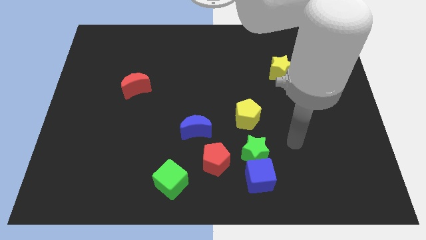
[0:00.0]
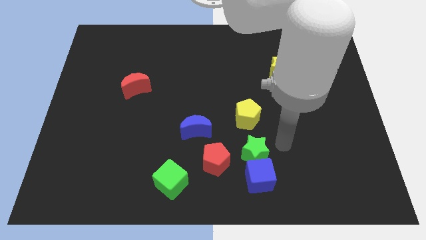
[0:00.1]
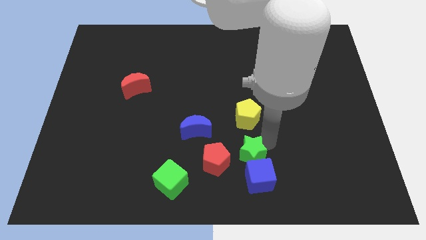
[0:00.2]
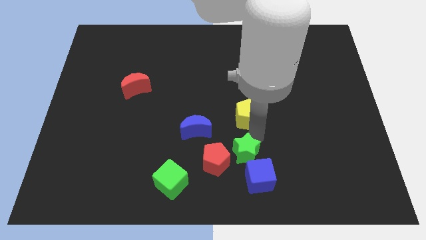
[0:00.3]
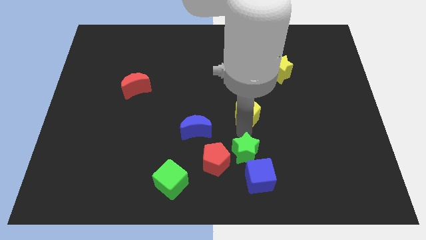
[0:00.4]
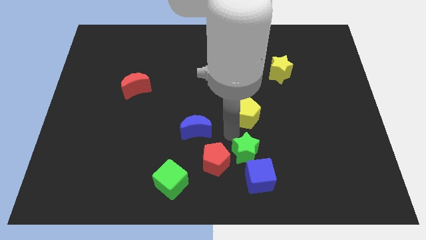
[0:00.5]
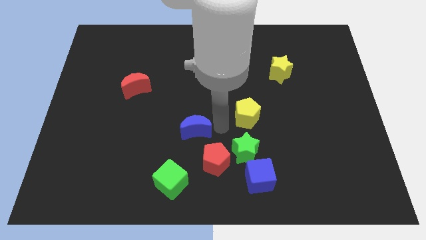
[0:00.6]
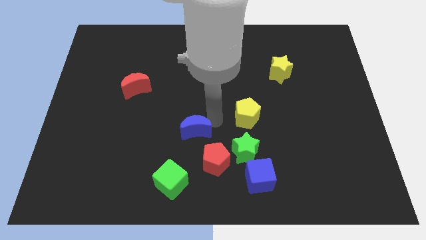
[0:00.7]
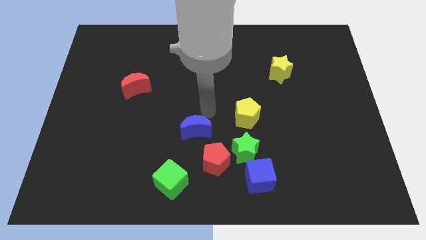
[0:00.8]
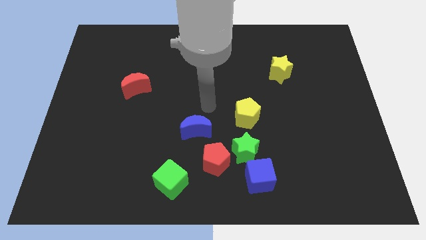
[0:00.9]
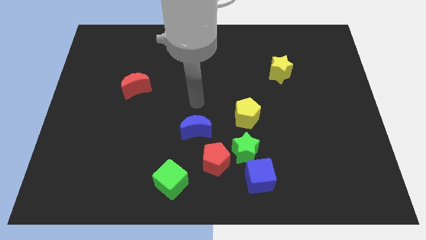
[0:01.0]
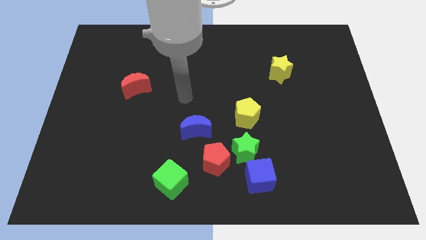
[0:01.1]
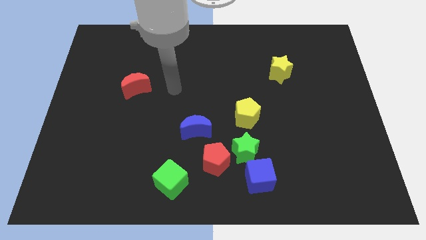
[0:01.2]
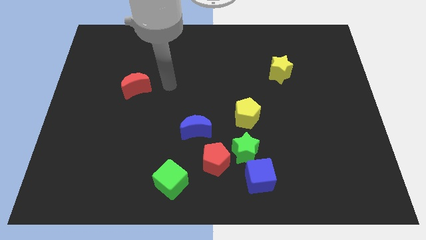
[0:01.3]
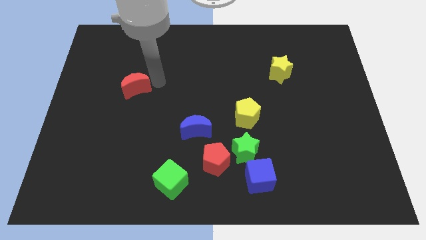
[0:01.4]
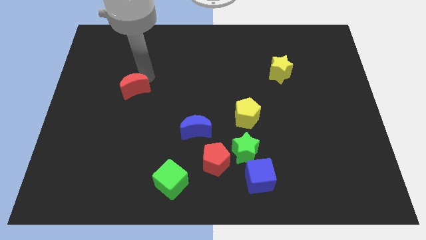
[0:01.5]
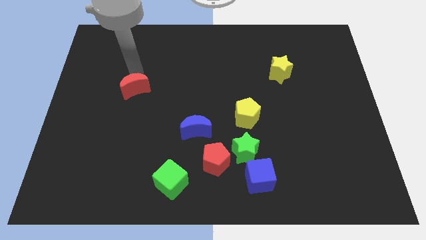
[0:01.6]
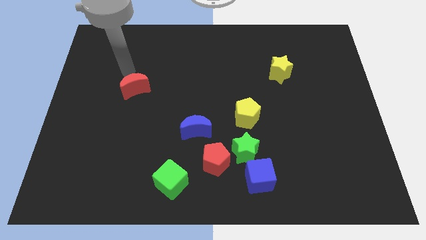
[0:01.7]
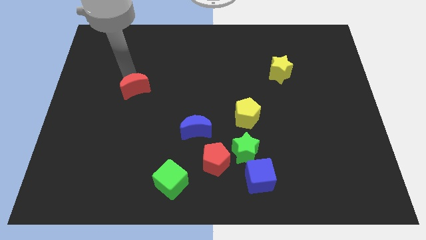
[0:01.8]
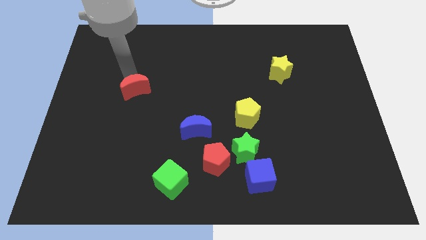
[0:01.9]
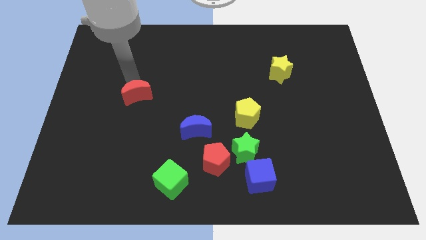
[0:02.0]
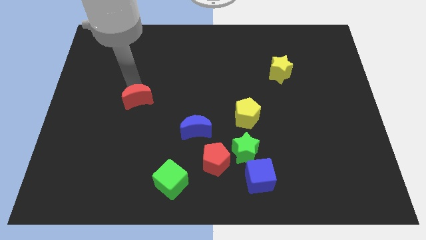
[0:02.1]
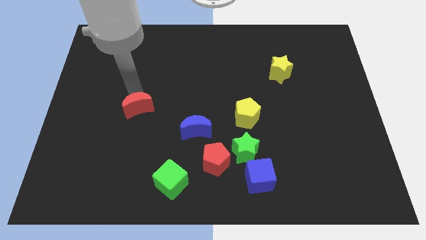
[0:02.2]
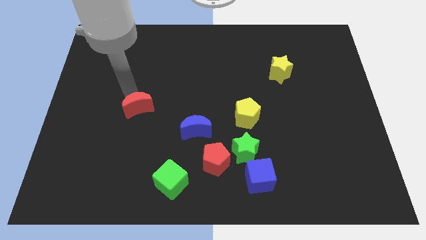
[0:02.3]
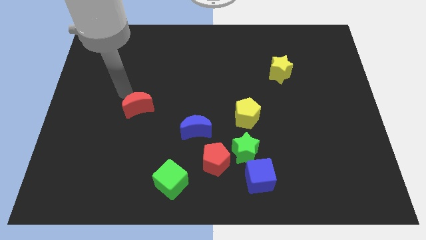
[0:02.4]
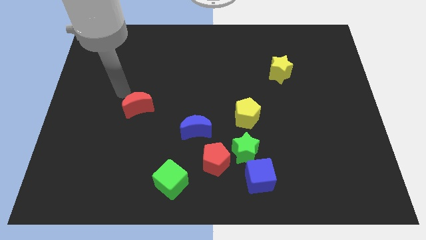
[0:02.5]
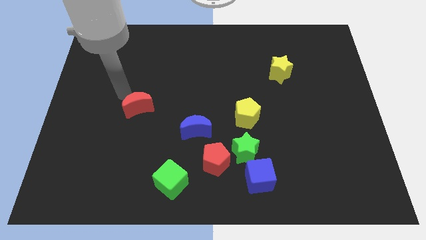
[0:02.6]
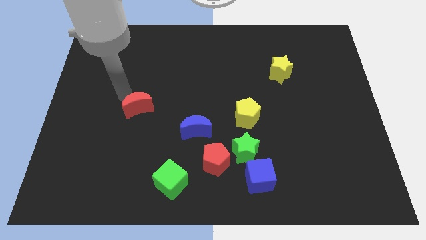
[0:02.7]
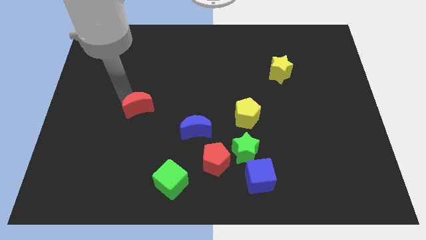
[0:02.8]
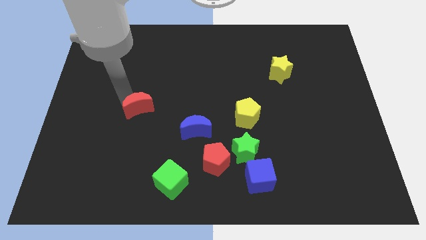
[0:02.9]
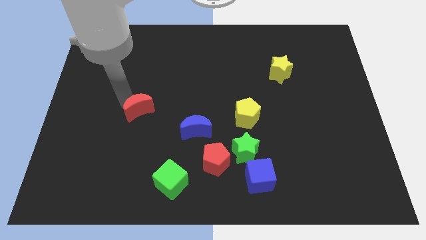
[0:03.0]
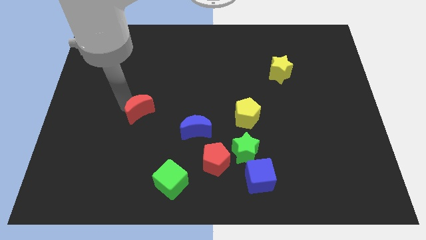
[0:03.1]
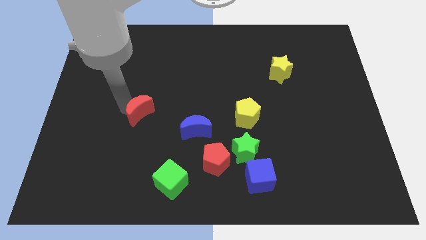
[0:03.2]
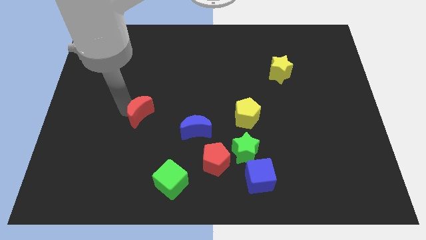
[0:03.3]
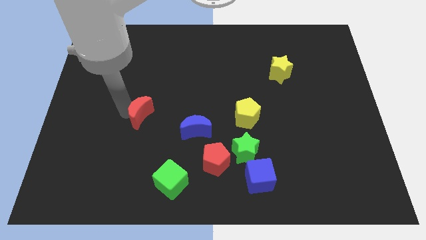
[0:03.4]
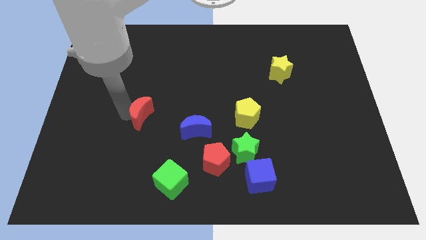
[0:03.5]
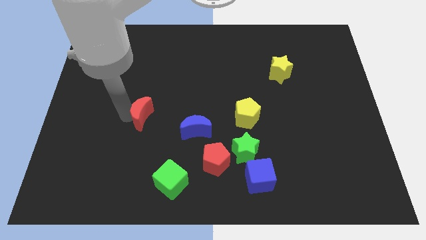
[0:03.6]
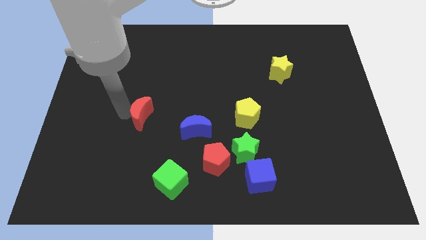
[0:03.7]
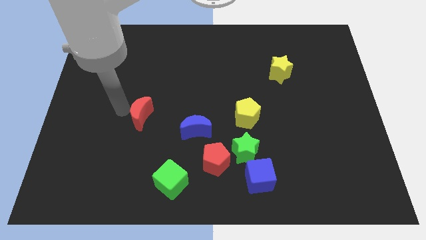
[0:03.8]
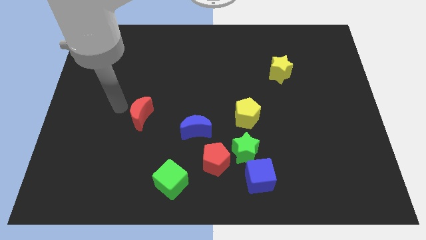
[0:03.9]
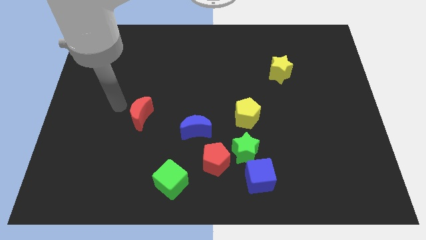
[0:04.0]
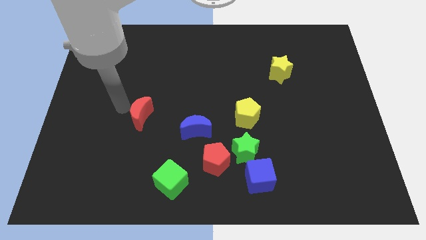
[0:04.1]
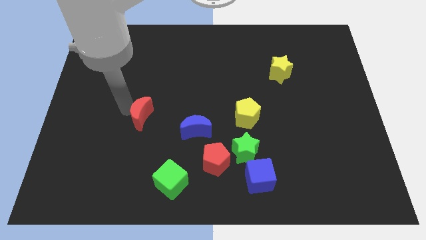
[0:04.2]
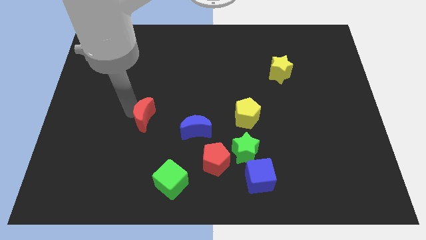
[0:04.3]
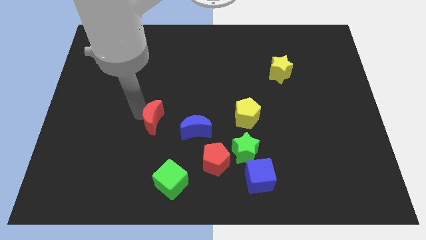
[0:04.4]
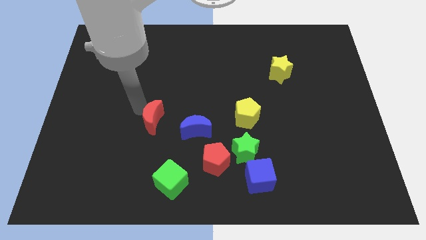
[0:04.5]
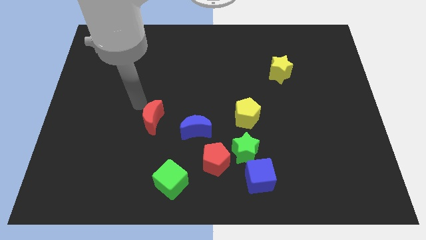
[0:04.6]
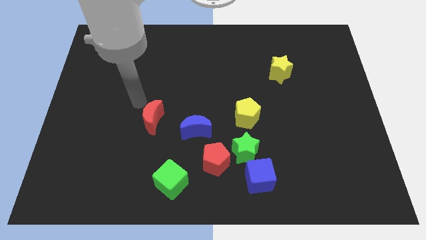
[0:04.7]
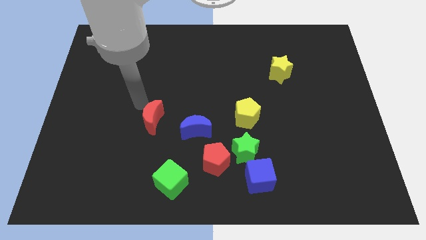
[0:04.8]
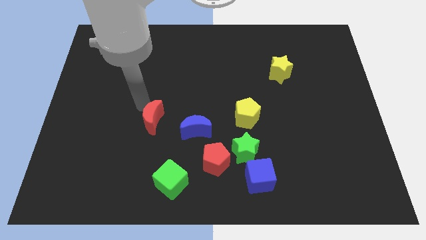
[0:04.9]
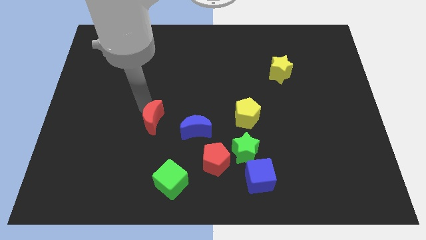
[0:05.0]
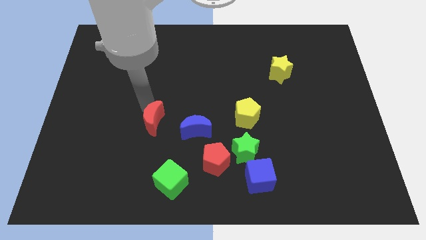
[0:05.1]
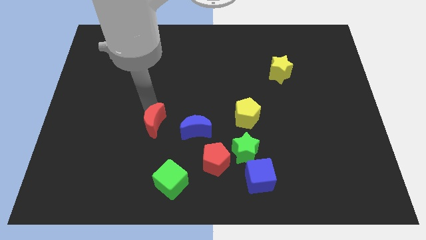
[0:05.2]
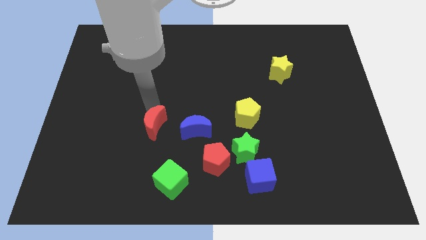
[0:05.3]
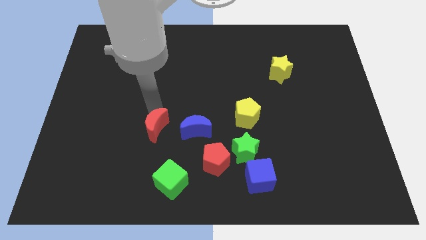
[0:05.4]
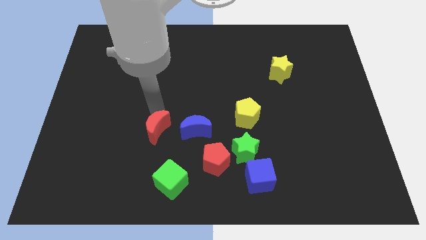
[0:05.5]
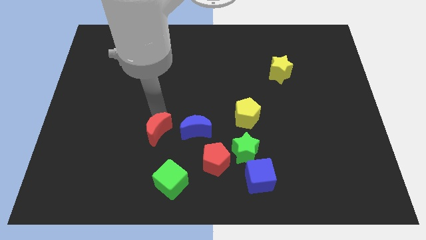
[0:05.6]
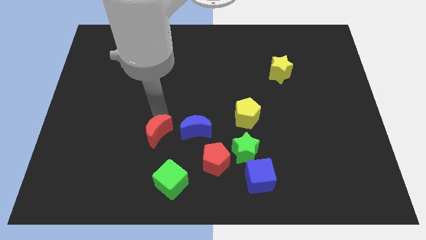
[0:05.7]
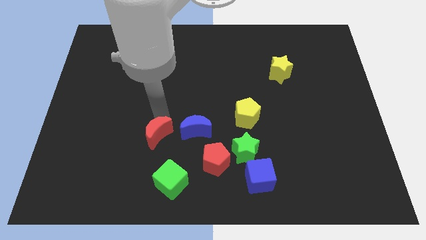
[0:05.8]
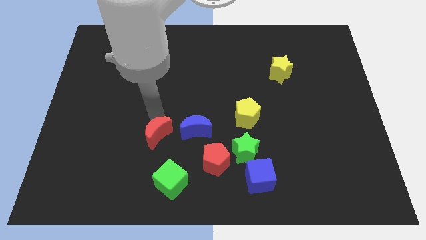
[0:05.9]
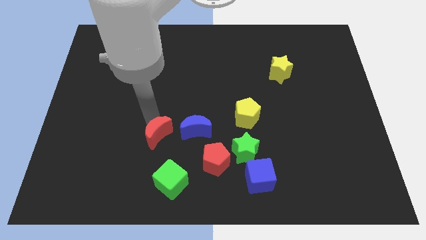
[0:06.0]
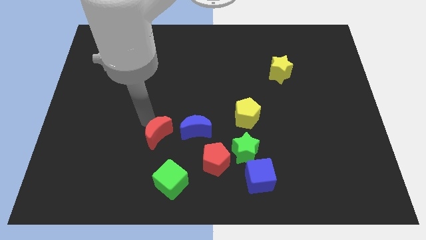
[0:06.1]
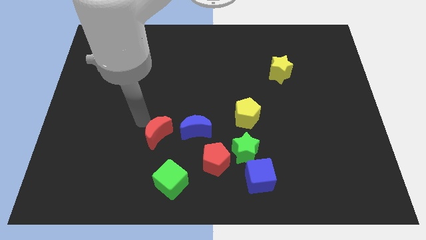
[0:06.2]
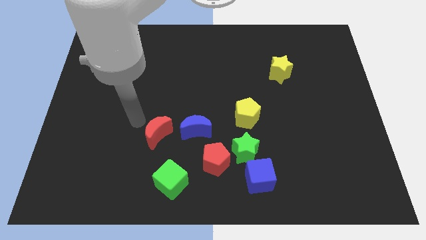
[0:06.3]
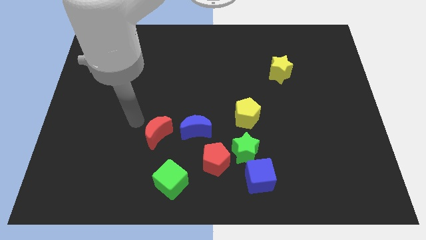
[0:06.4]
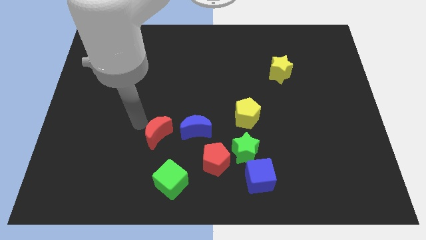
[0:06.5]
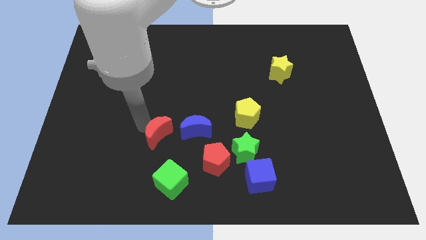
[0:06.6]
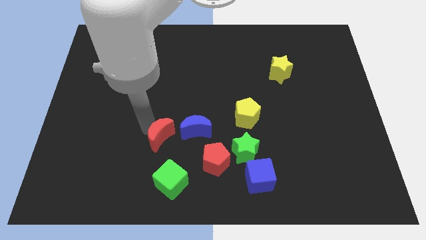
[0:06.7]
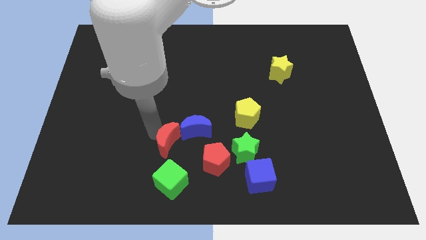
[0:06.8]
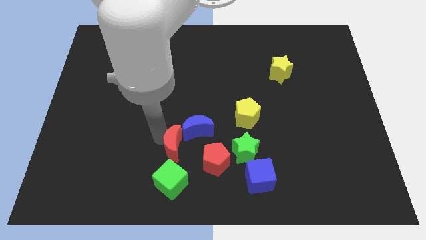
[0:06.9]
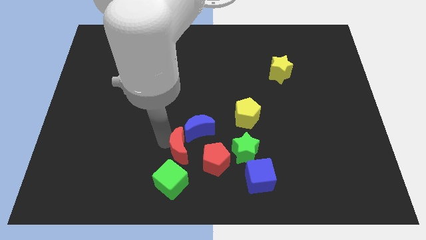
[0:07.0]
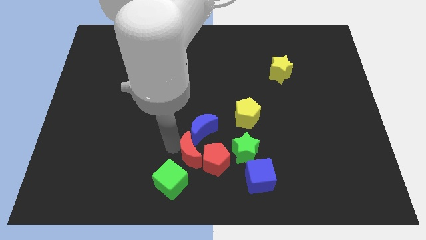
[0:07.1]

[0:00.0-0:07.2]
push the red moon next to the red pentagon

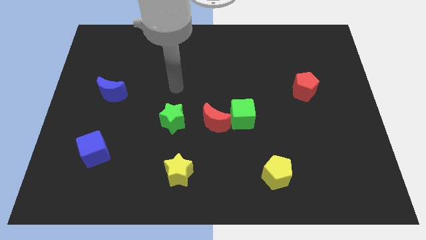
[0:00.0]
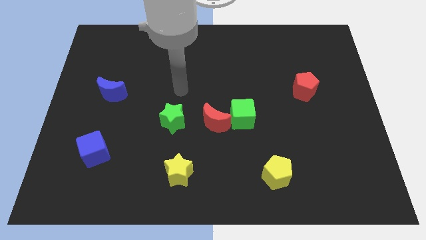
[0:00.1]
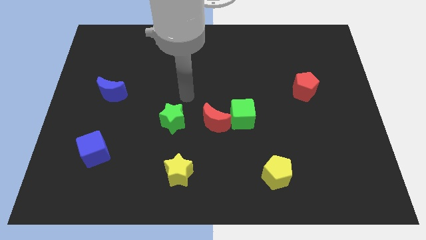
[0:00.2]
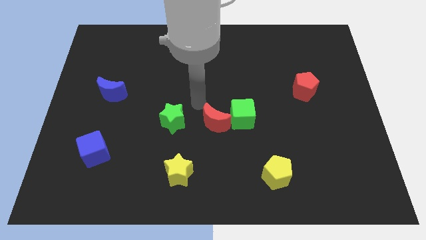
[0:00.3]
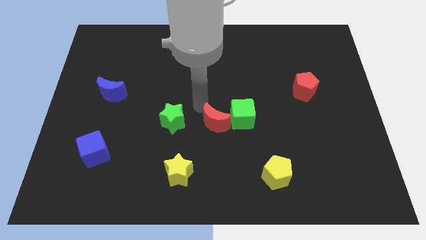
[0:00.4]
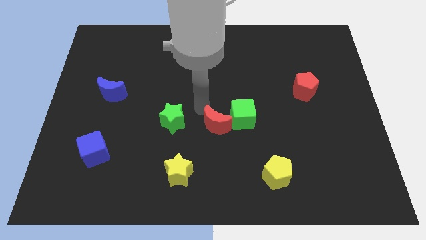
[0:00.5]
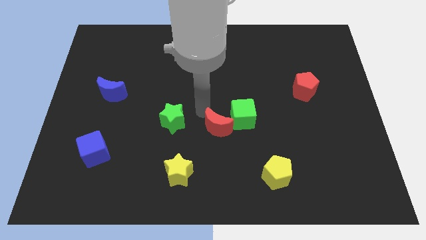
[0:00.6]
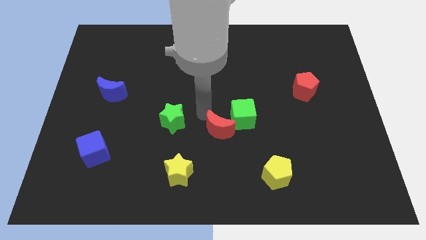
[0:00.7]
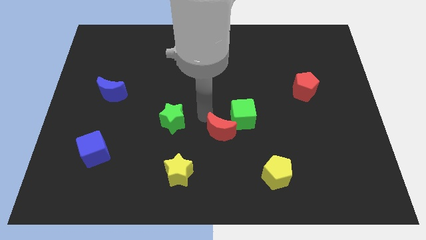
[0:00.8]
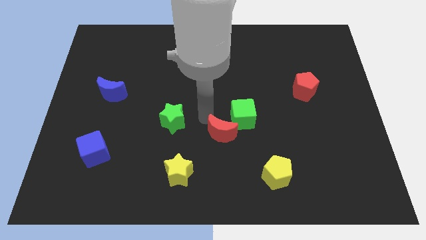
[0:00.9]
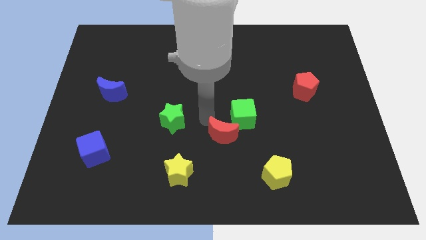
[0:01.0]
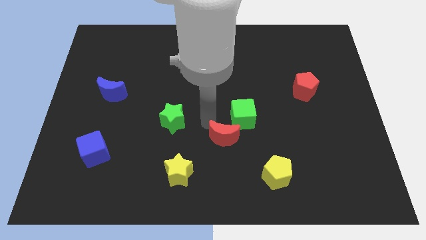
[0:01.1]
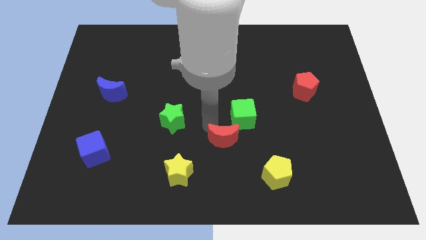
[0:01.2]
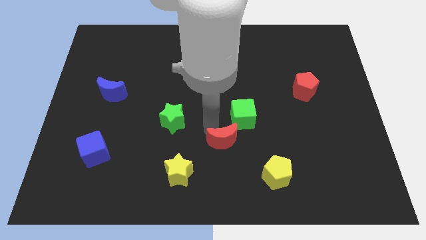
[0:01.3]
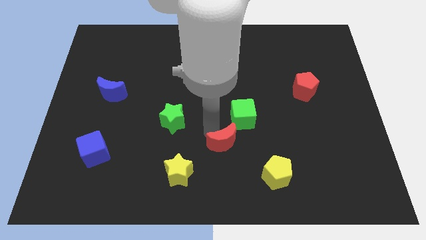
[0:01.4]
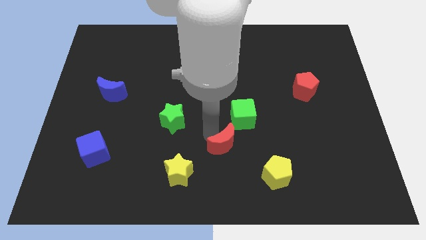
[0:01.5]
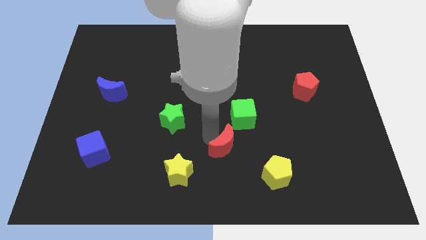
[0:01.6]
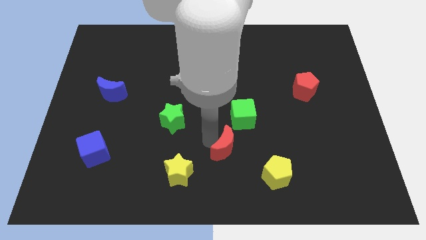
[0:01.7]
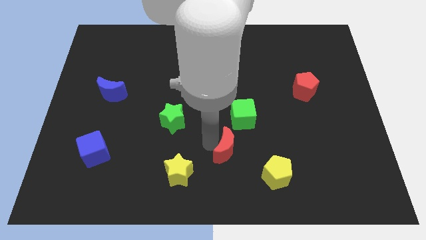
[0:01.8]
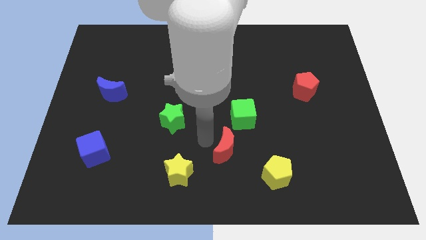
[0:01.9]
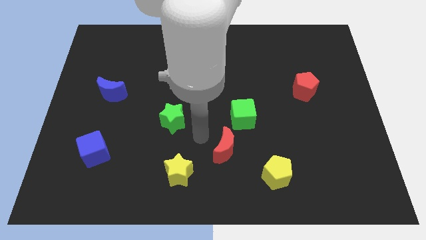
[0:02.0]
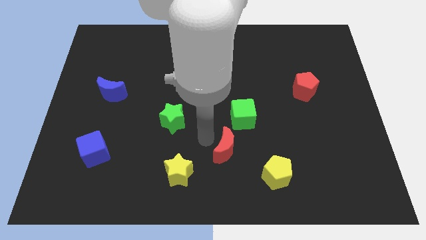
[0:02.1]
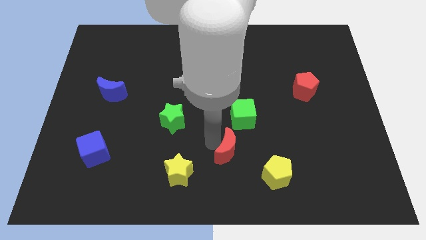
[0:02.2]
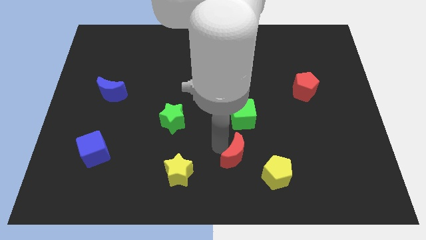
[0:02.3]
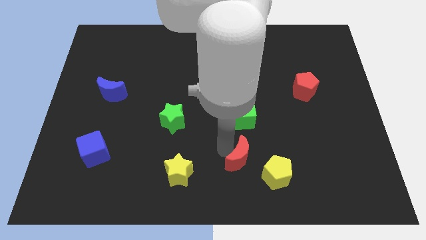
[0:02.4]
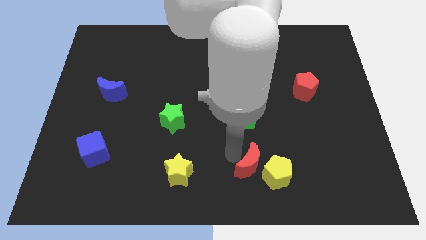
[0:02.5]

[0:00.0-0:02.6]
move the red moon next to the yellow pentagon
